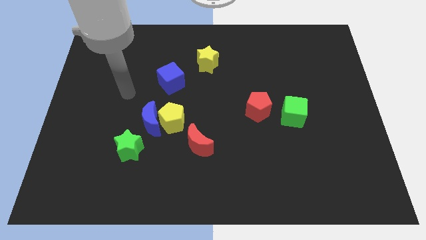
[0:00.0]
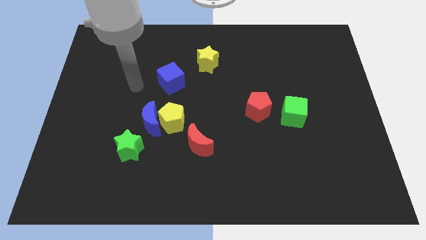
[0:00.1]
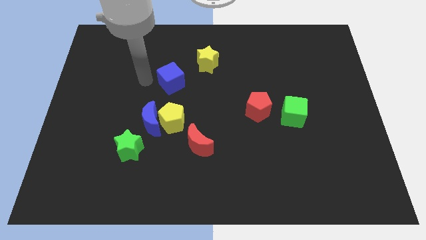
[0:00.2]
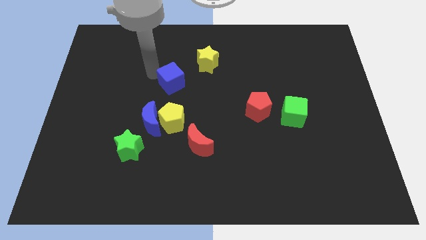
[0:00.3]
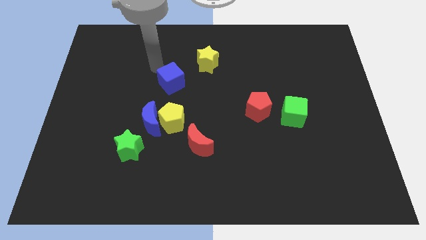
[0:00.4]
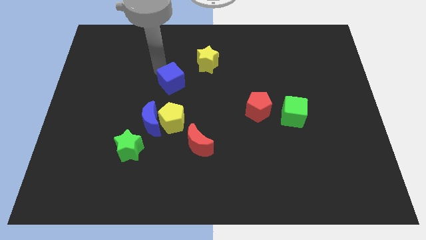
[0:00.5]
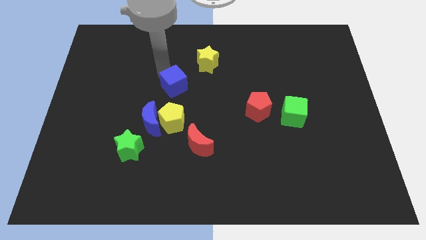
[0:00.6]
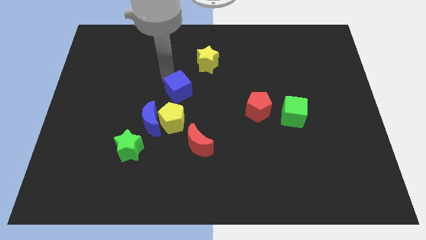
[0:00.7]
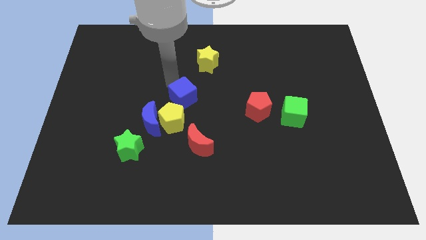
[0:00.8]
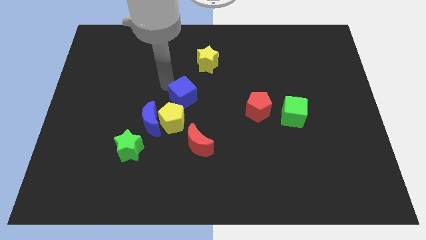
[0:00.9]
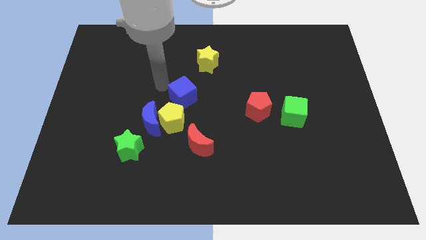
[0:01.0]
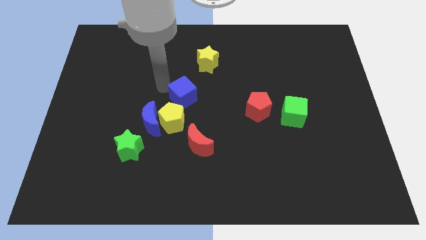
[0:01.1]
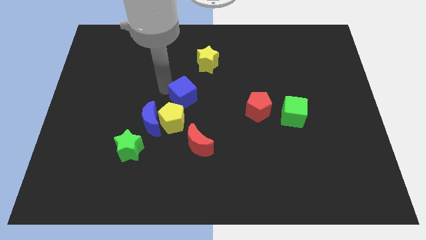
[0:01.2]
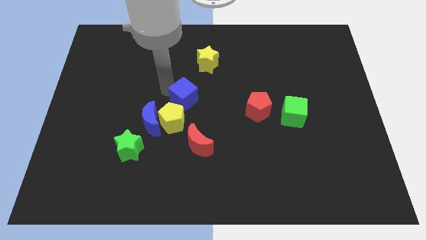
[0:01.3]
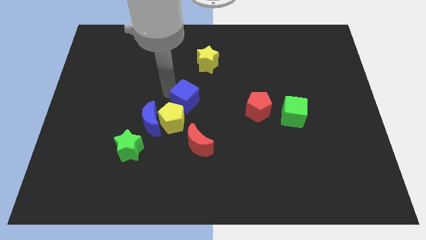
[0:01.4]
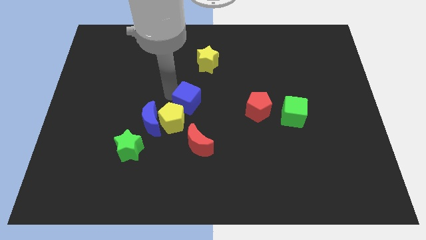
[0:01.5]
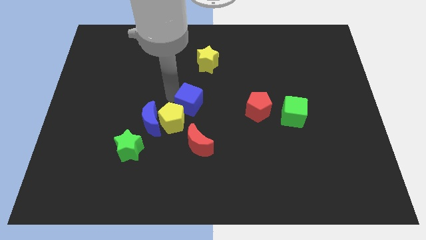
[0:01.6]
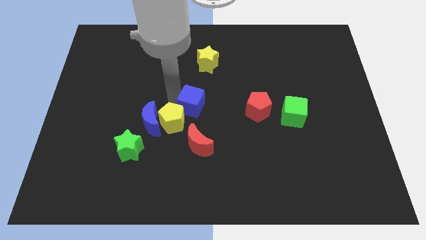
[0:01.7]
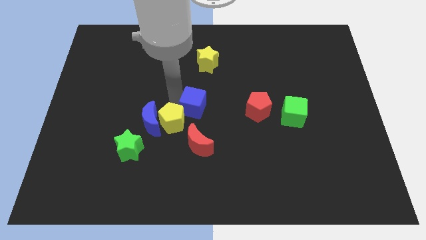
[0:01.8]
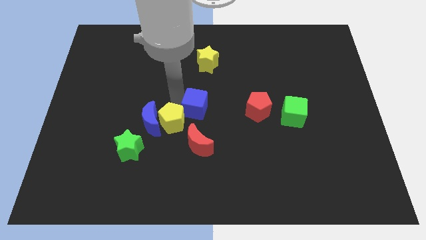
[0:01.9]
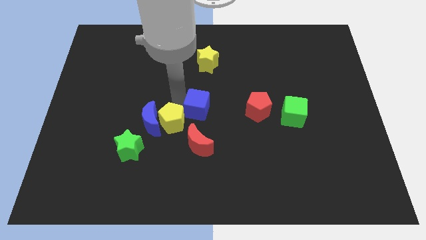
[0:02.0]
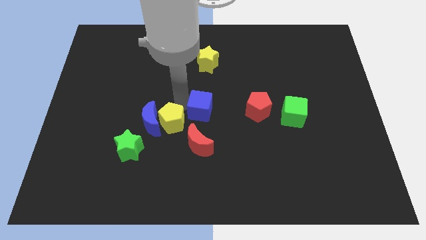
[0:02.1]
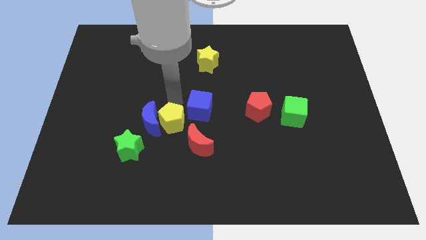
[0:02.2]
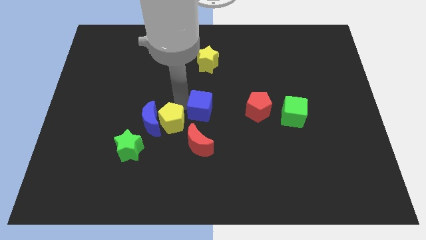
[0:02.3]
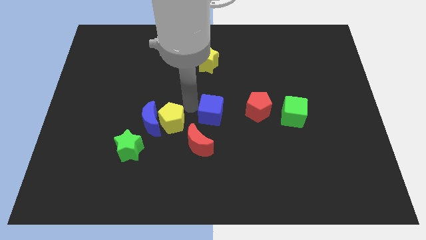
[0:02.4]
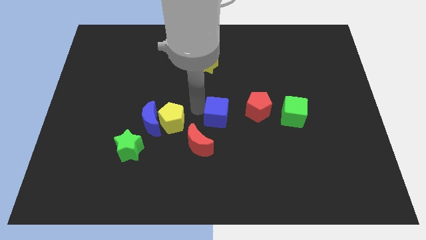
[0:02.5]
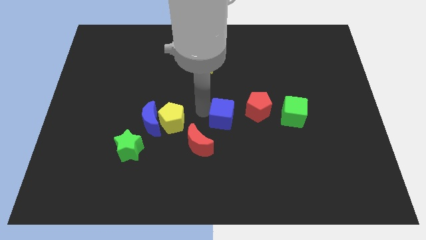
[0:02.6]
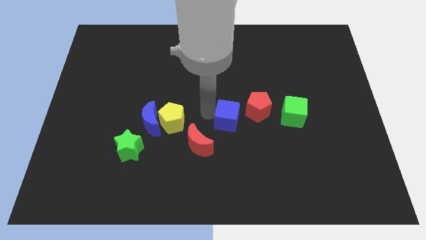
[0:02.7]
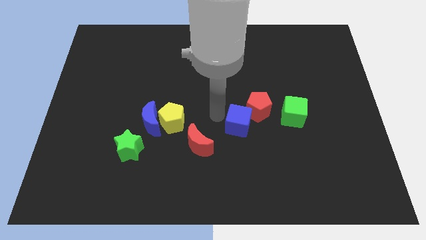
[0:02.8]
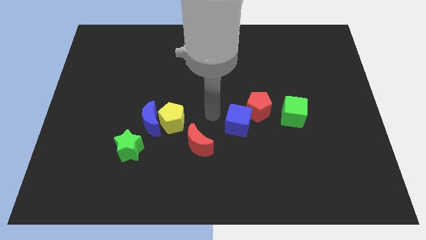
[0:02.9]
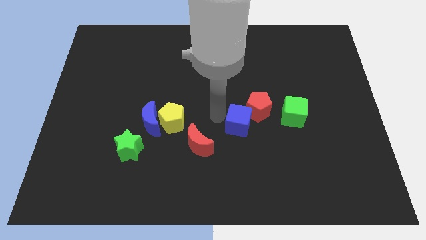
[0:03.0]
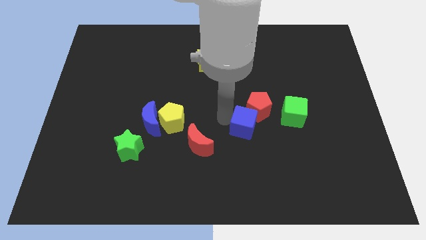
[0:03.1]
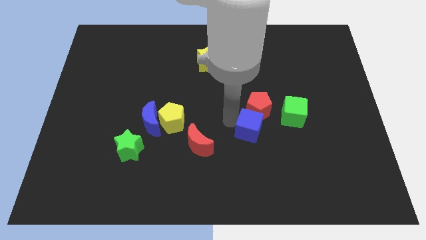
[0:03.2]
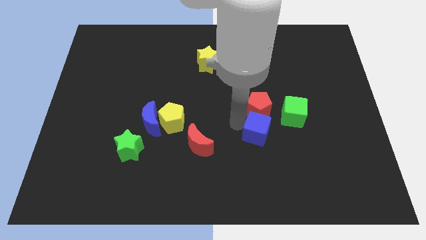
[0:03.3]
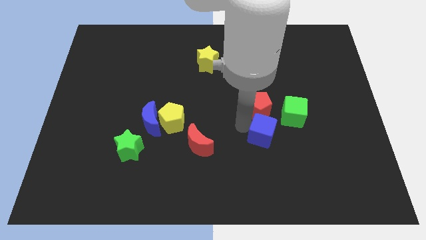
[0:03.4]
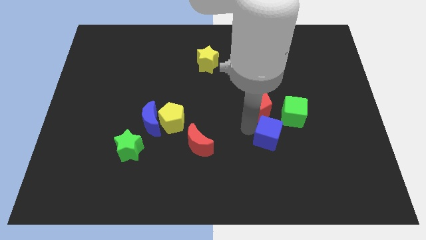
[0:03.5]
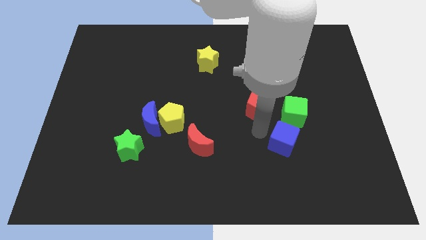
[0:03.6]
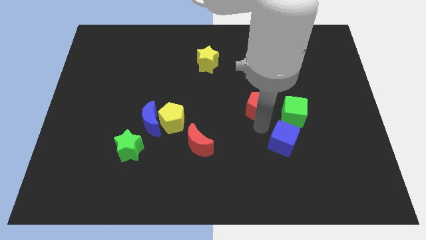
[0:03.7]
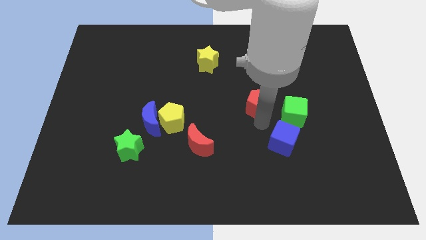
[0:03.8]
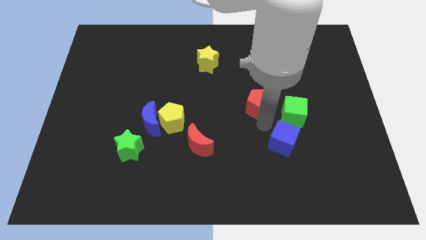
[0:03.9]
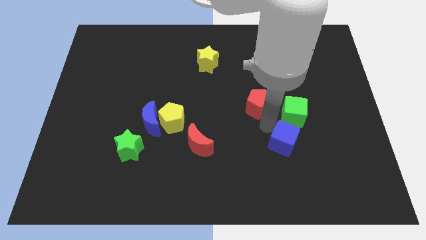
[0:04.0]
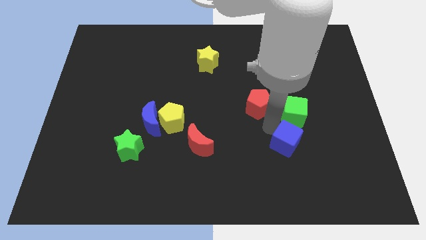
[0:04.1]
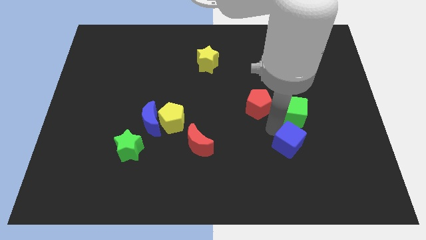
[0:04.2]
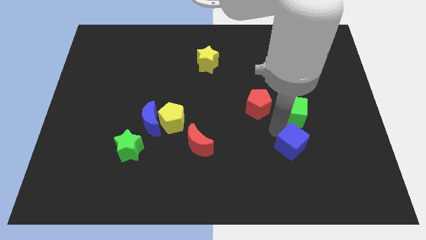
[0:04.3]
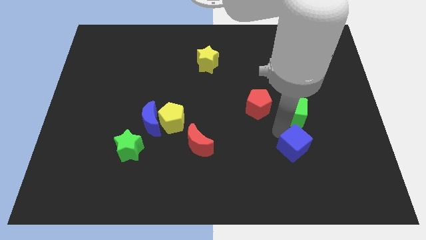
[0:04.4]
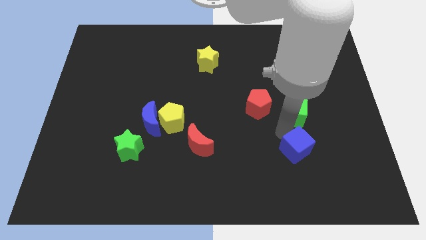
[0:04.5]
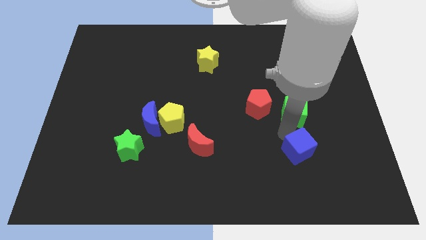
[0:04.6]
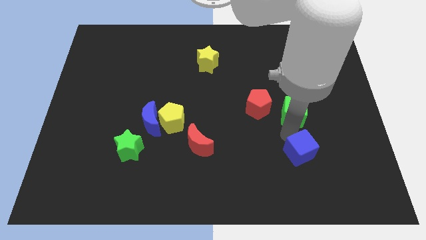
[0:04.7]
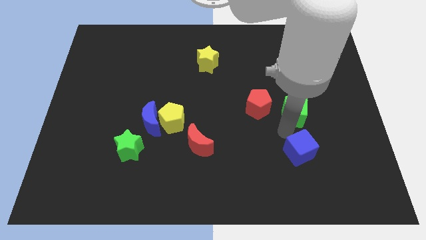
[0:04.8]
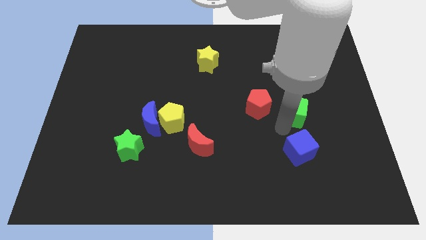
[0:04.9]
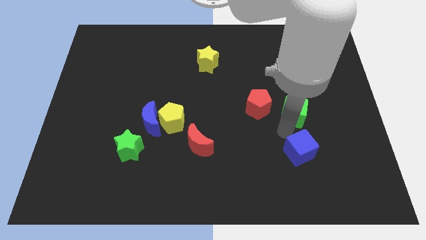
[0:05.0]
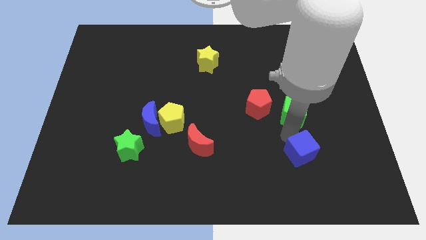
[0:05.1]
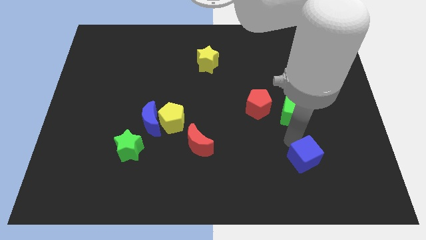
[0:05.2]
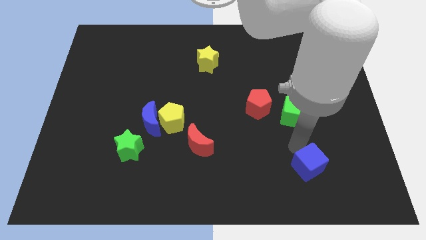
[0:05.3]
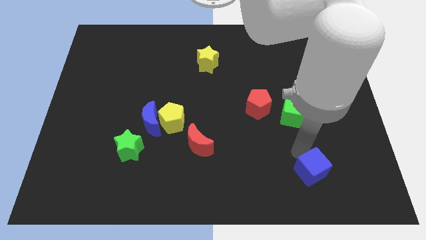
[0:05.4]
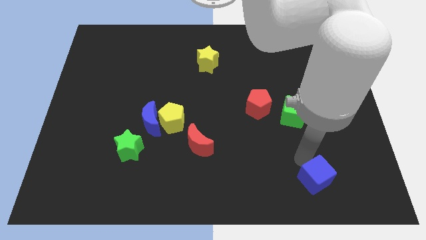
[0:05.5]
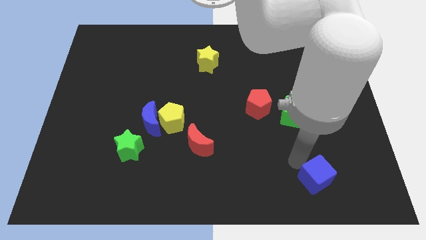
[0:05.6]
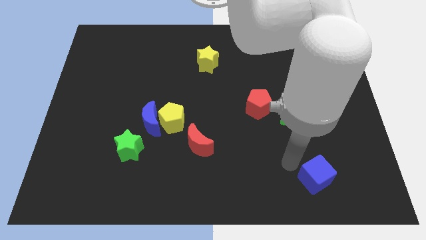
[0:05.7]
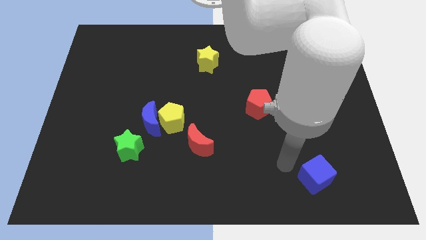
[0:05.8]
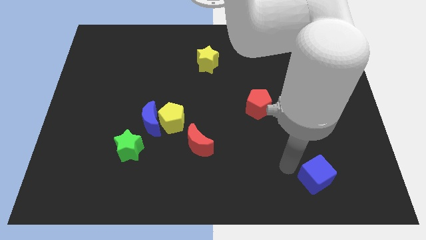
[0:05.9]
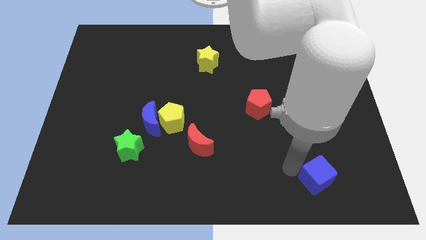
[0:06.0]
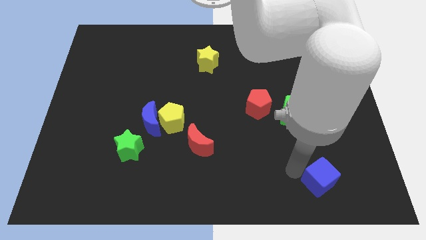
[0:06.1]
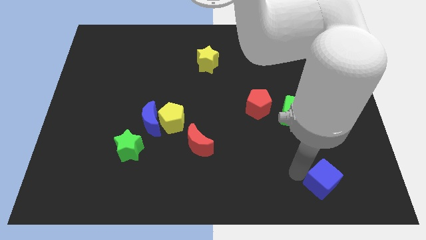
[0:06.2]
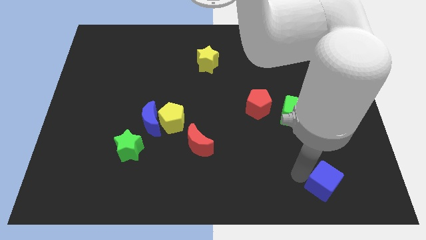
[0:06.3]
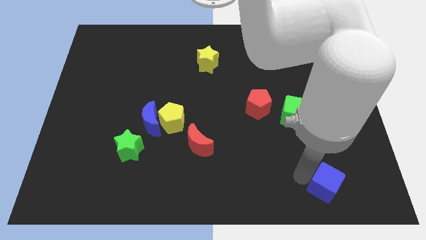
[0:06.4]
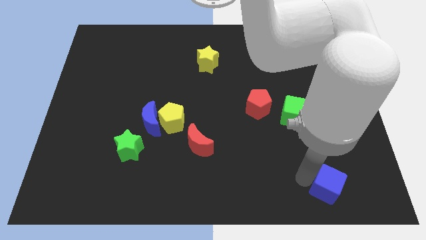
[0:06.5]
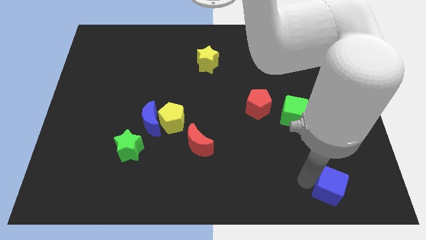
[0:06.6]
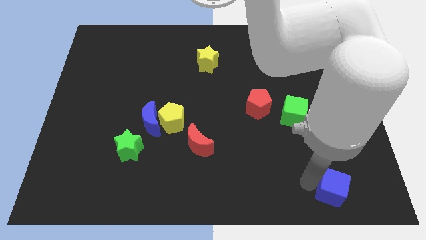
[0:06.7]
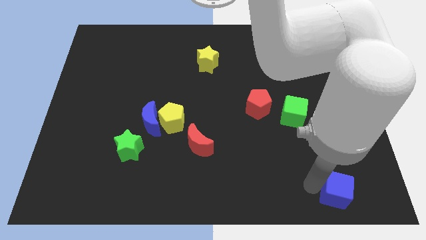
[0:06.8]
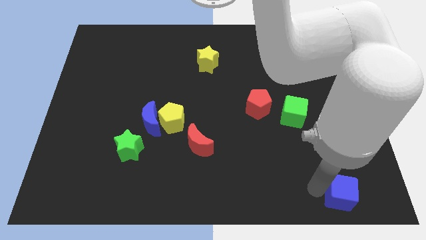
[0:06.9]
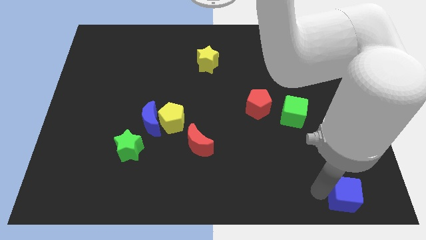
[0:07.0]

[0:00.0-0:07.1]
push the blue cube to the bottom right of the board
